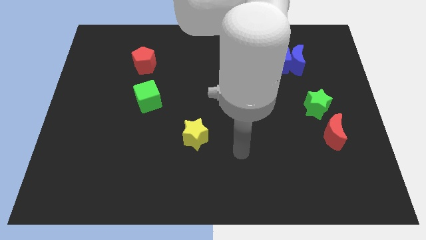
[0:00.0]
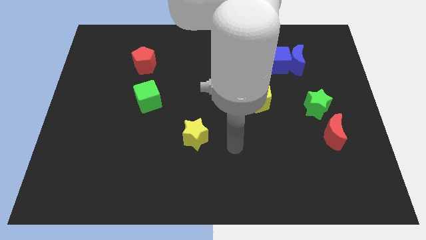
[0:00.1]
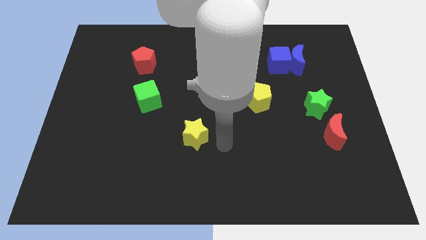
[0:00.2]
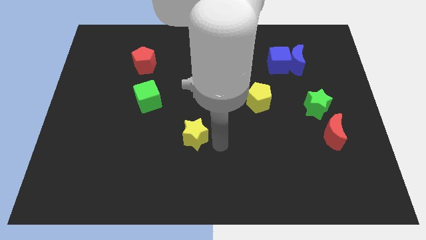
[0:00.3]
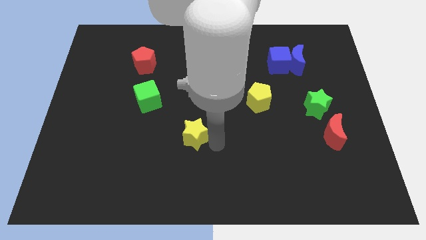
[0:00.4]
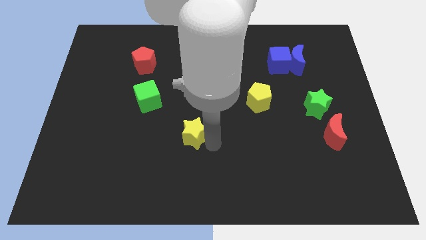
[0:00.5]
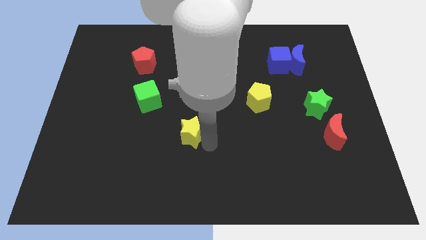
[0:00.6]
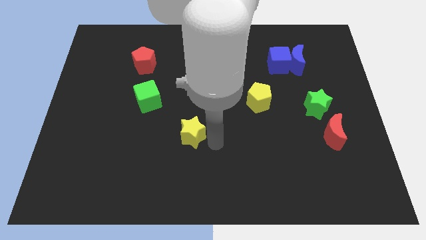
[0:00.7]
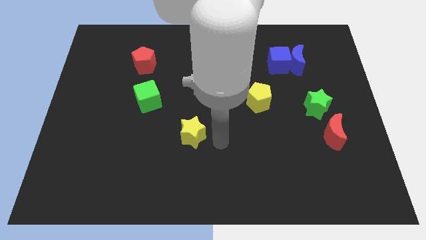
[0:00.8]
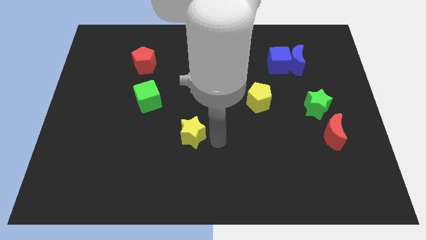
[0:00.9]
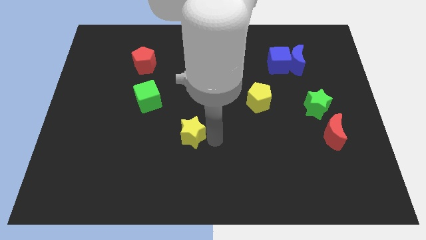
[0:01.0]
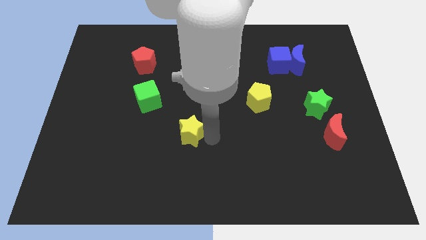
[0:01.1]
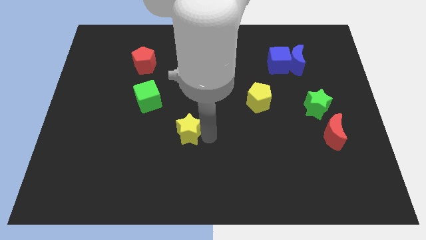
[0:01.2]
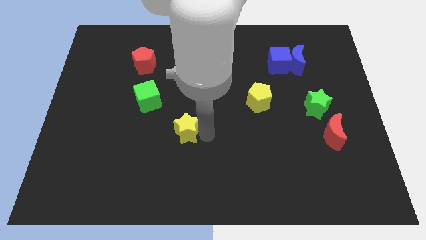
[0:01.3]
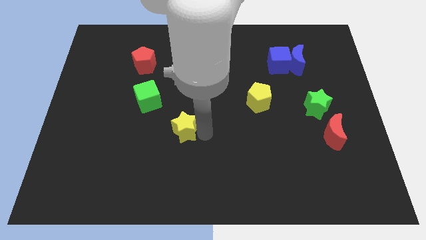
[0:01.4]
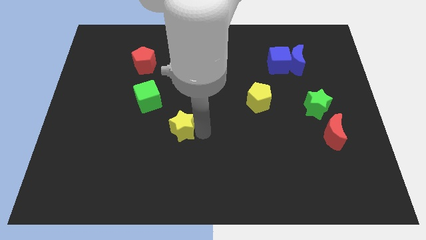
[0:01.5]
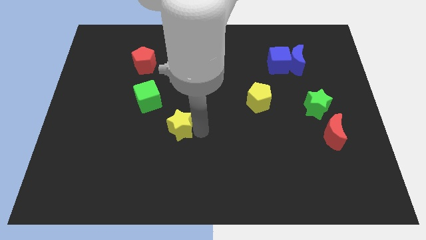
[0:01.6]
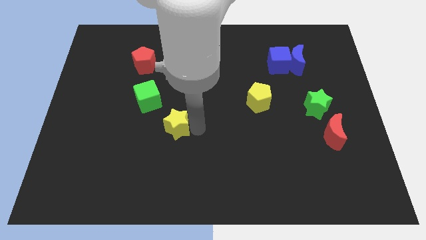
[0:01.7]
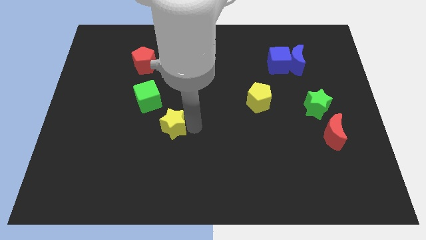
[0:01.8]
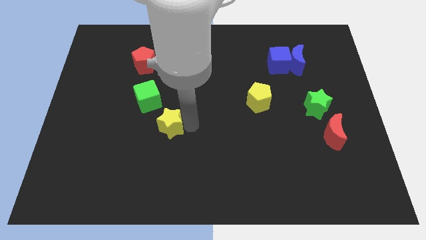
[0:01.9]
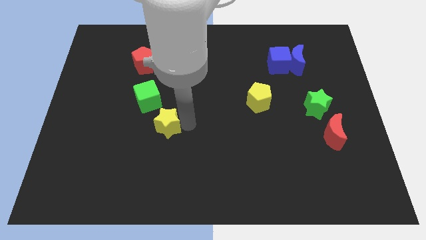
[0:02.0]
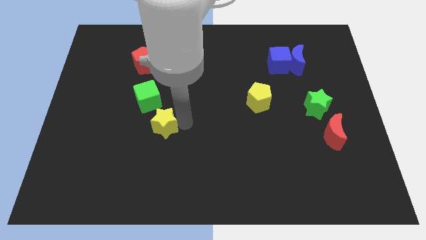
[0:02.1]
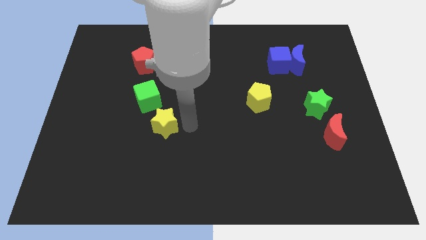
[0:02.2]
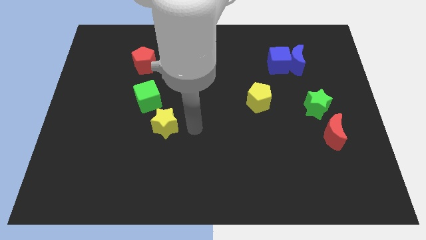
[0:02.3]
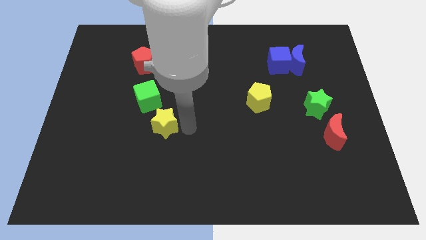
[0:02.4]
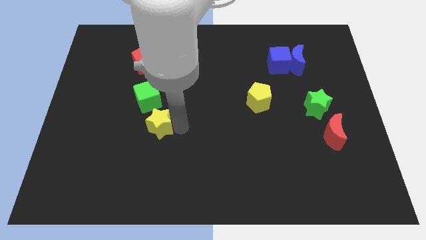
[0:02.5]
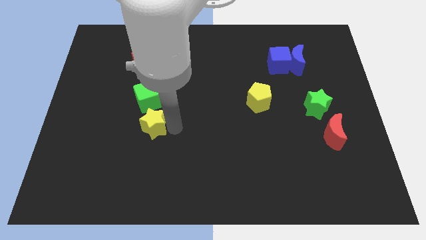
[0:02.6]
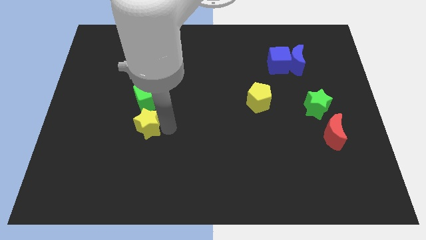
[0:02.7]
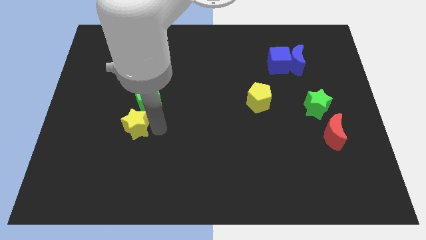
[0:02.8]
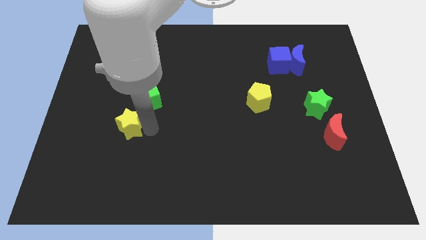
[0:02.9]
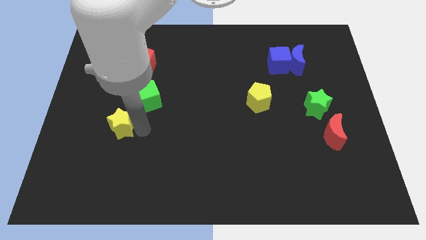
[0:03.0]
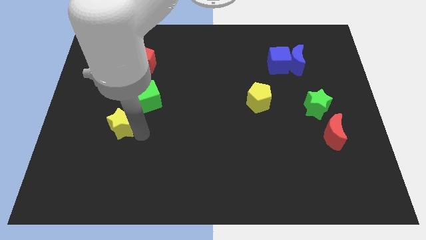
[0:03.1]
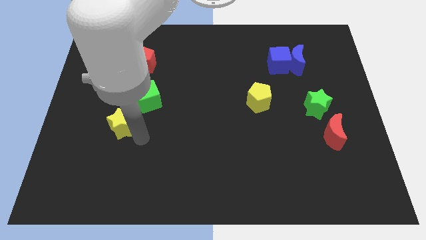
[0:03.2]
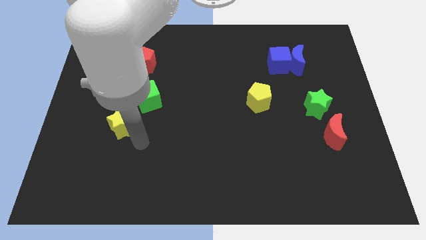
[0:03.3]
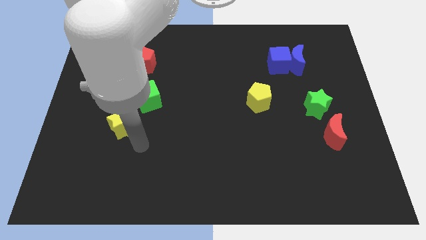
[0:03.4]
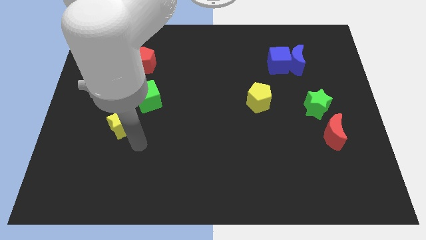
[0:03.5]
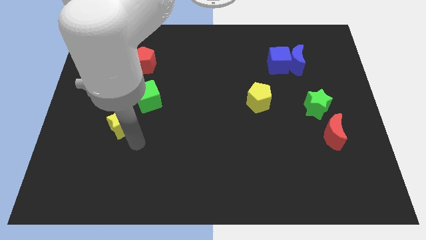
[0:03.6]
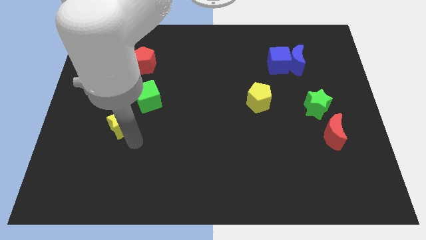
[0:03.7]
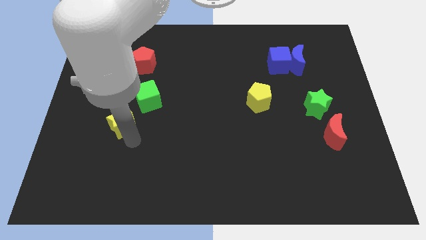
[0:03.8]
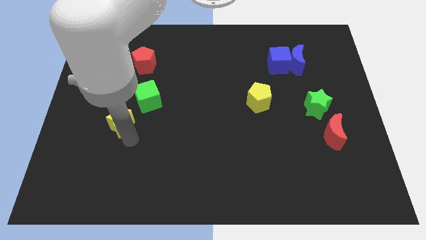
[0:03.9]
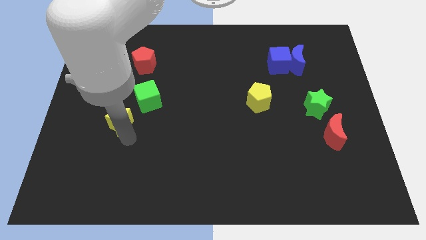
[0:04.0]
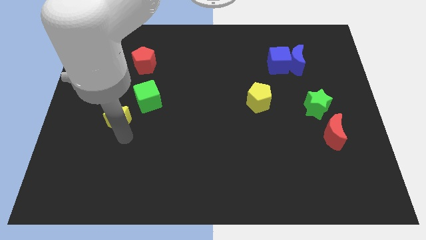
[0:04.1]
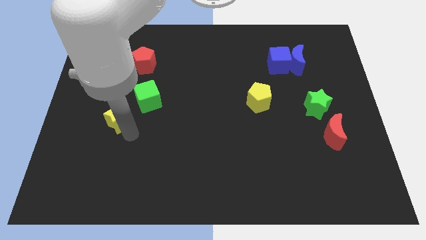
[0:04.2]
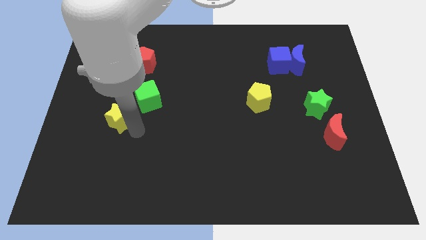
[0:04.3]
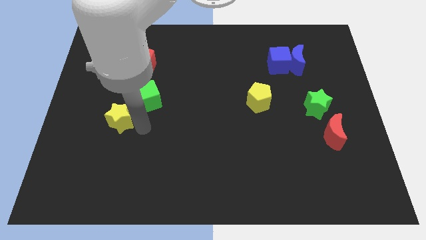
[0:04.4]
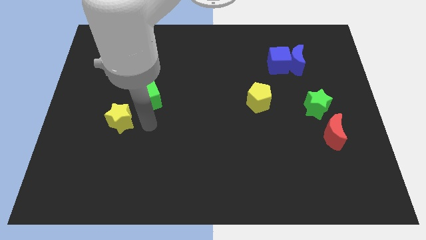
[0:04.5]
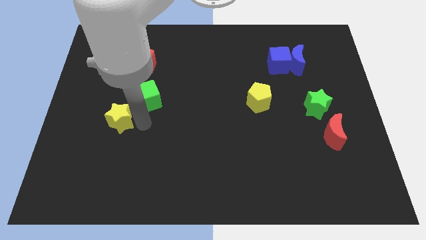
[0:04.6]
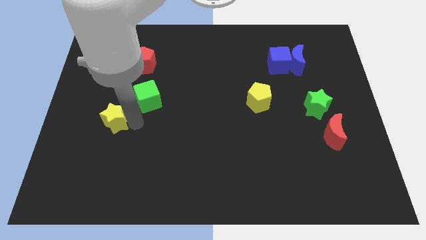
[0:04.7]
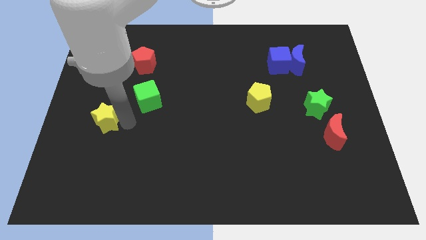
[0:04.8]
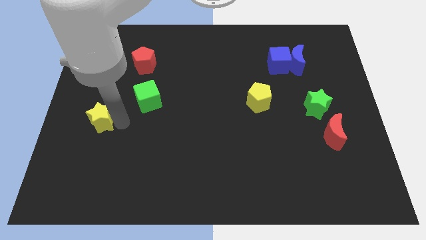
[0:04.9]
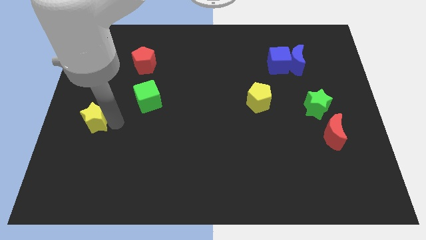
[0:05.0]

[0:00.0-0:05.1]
move the yellow star to the left side of the board

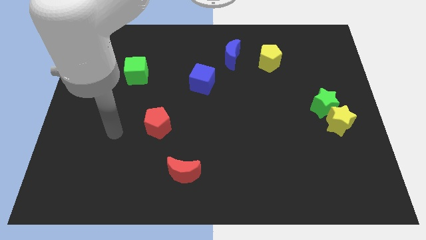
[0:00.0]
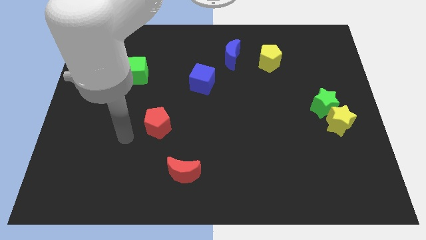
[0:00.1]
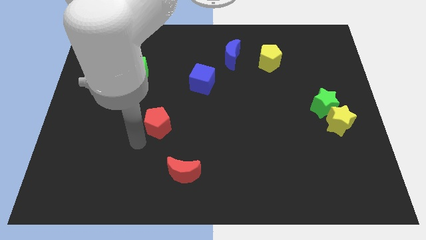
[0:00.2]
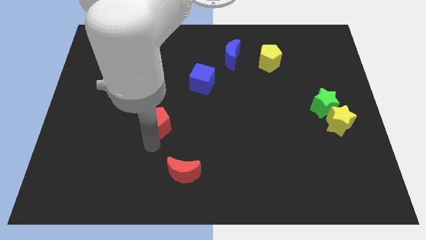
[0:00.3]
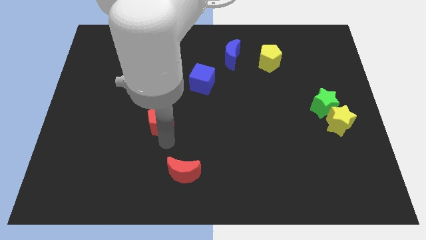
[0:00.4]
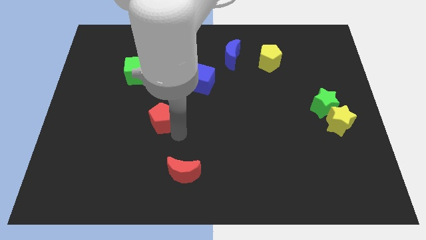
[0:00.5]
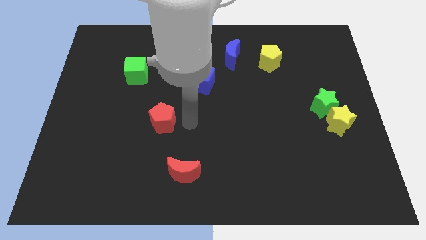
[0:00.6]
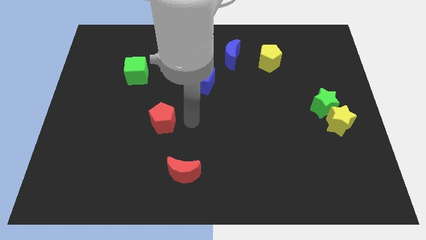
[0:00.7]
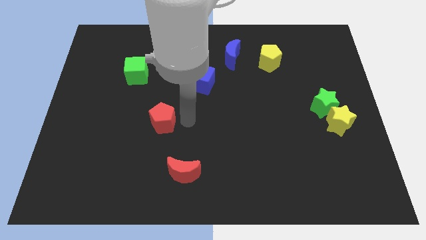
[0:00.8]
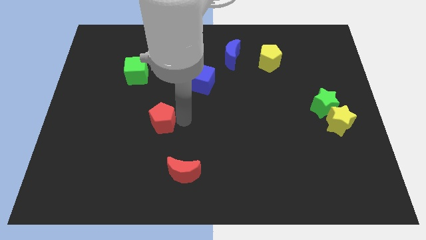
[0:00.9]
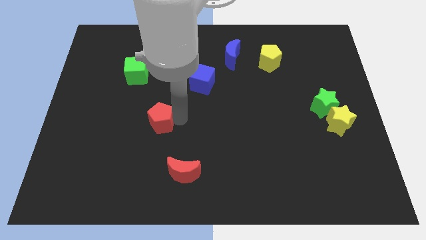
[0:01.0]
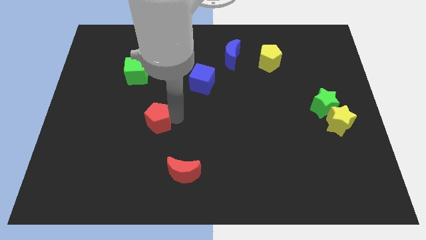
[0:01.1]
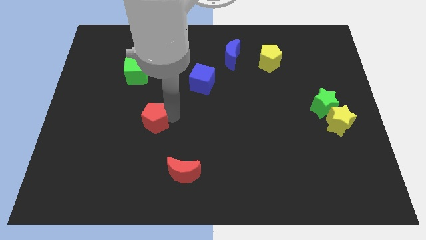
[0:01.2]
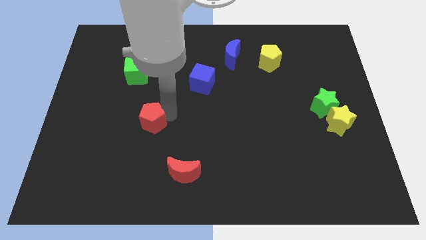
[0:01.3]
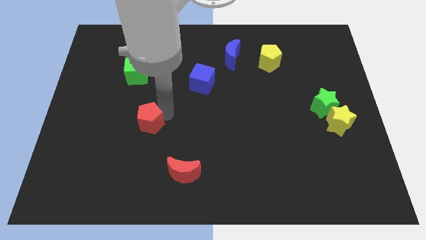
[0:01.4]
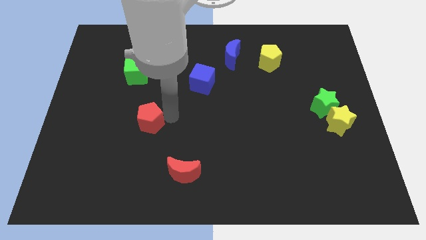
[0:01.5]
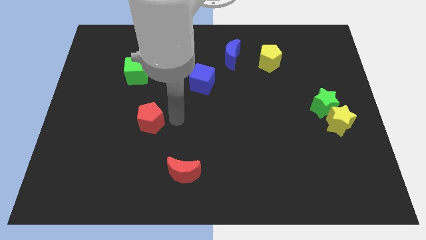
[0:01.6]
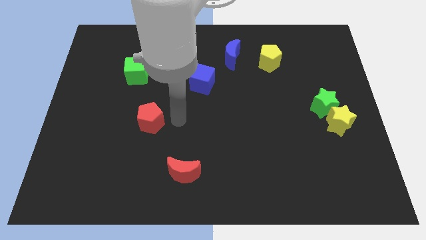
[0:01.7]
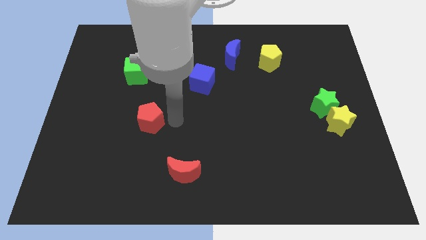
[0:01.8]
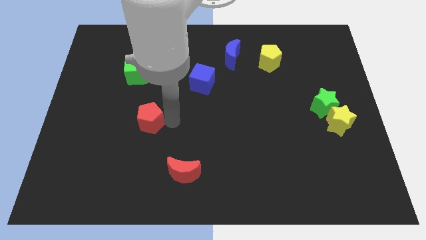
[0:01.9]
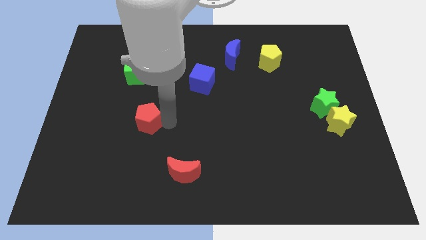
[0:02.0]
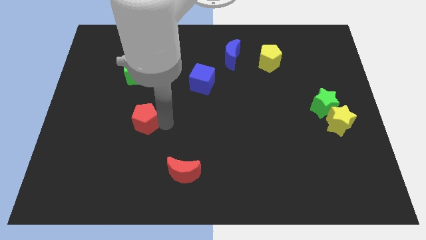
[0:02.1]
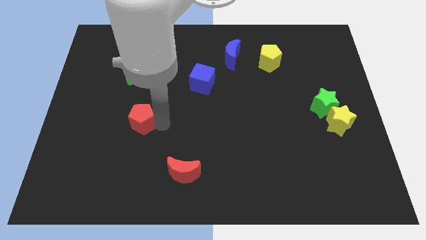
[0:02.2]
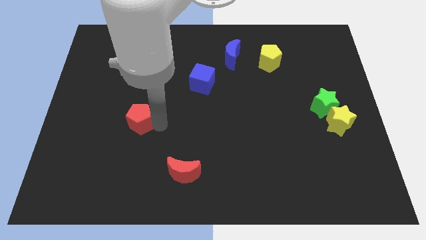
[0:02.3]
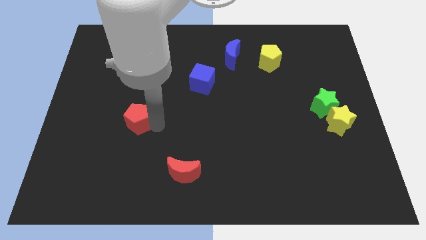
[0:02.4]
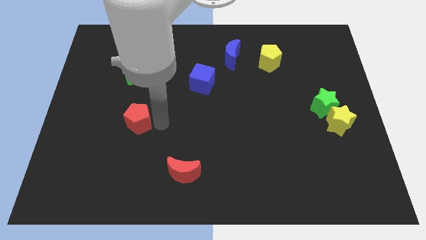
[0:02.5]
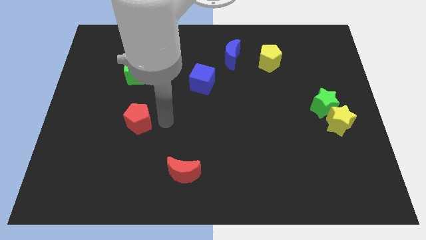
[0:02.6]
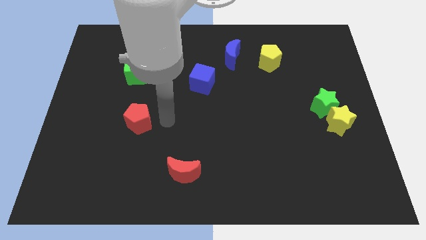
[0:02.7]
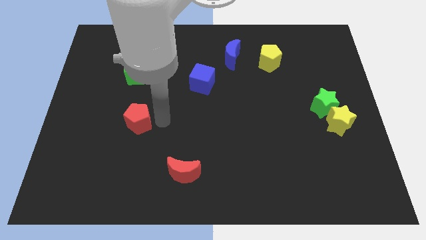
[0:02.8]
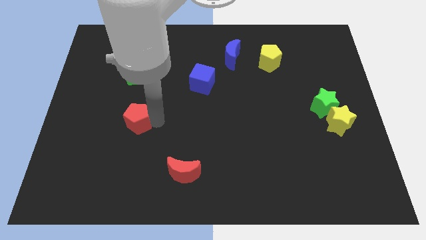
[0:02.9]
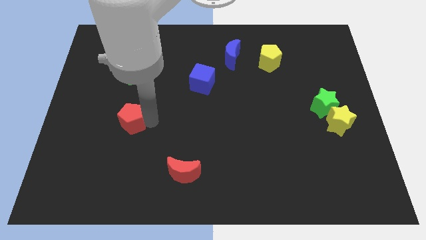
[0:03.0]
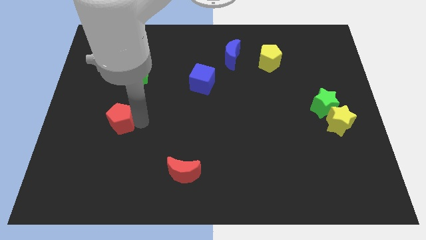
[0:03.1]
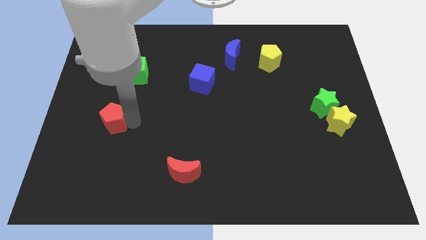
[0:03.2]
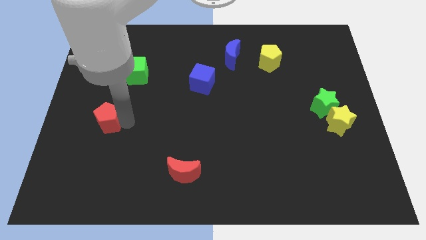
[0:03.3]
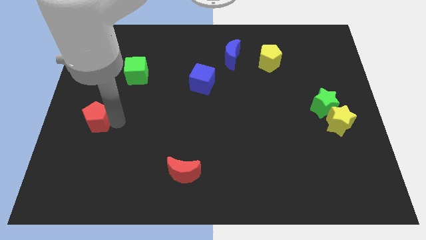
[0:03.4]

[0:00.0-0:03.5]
push the red pentagon to the left side of the board
